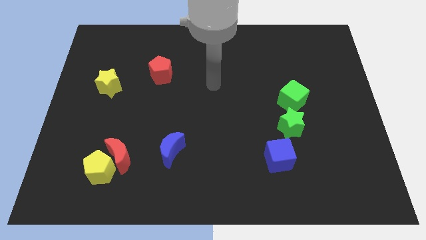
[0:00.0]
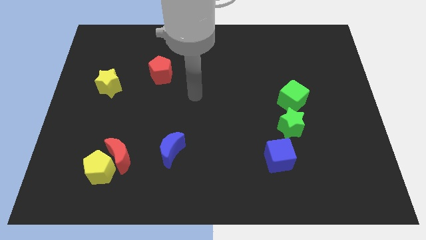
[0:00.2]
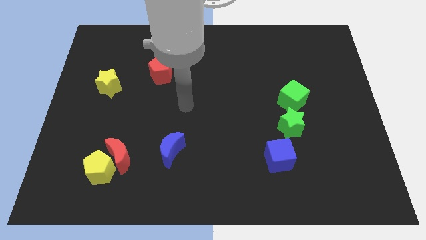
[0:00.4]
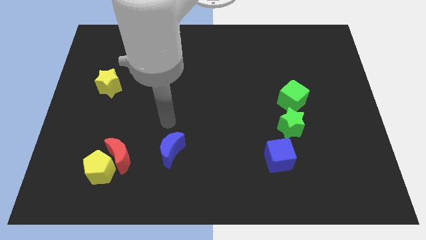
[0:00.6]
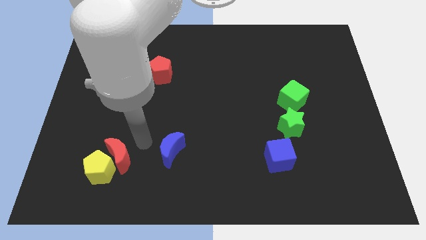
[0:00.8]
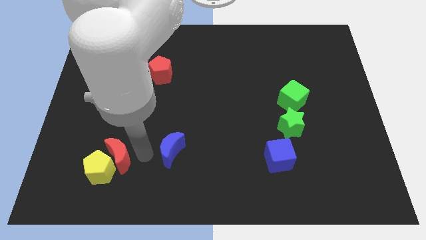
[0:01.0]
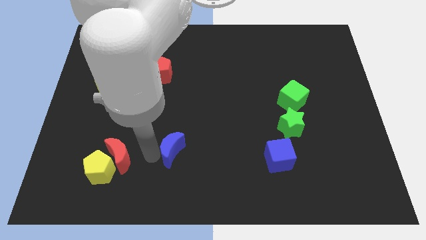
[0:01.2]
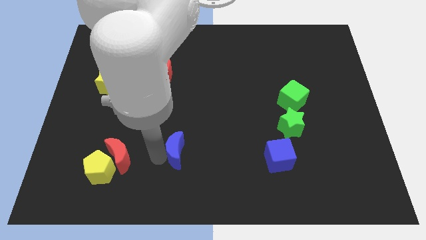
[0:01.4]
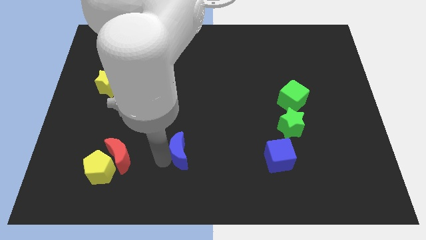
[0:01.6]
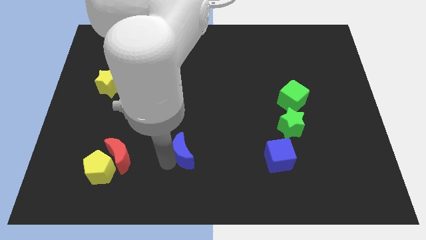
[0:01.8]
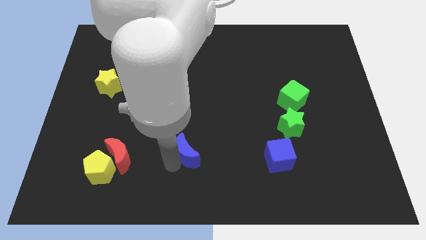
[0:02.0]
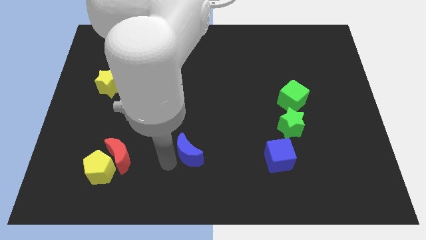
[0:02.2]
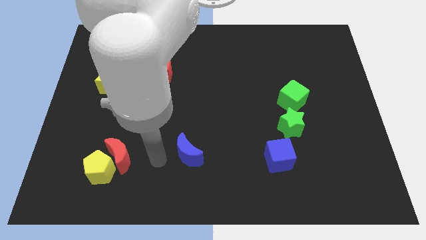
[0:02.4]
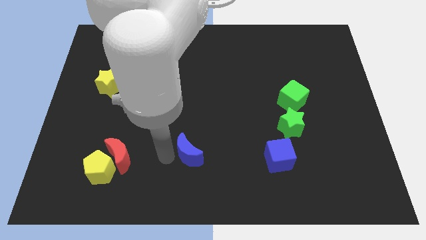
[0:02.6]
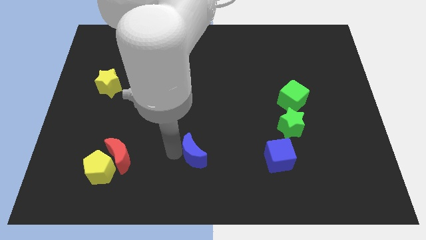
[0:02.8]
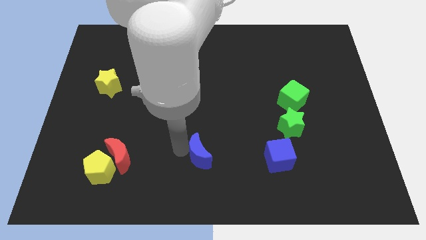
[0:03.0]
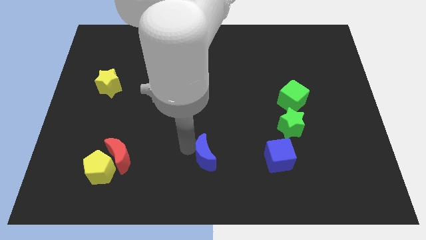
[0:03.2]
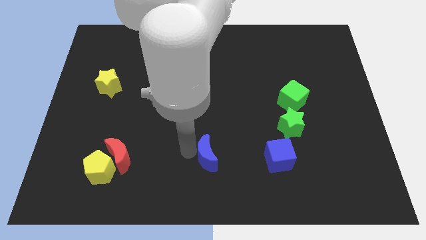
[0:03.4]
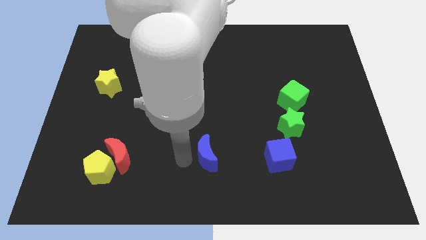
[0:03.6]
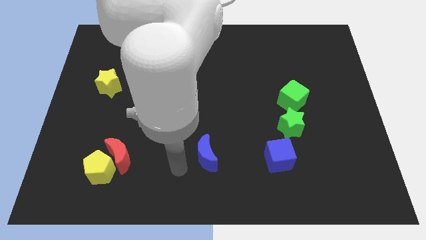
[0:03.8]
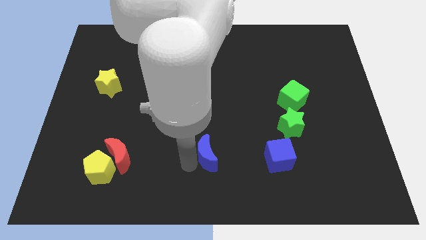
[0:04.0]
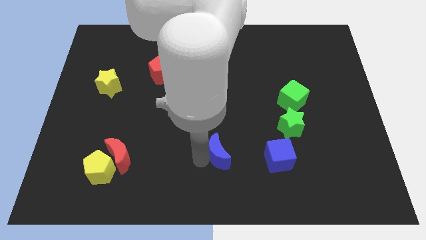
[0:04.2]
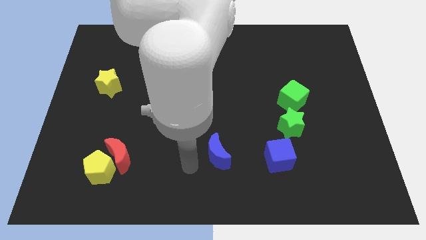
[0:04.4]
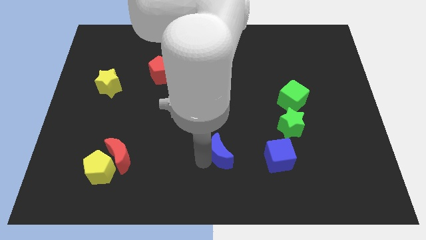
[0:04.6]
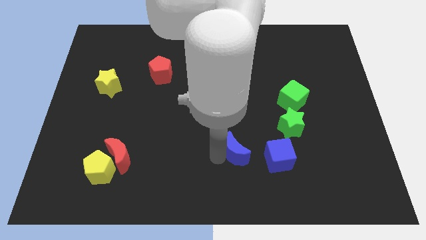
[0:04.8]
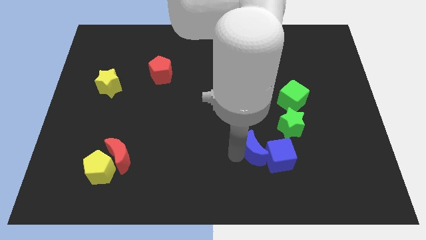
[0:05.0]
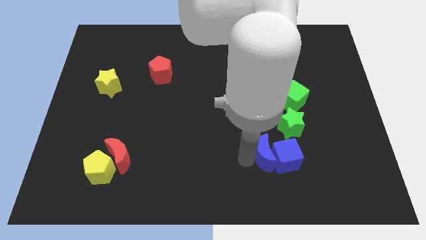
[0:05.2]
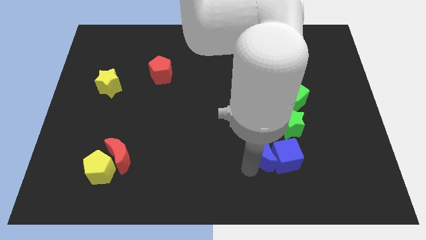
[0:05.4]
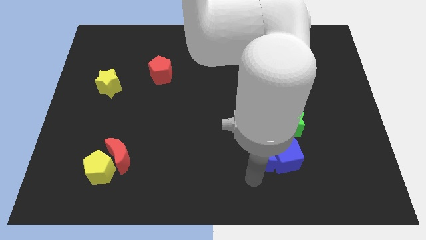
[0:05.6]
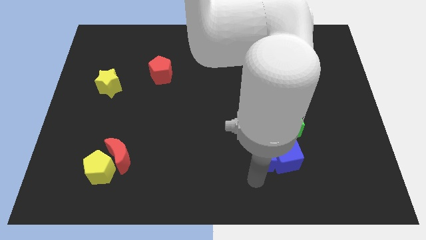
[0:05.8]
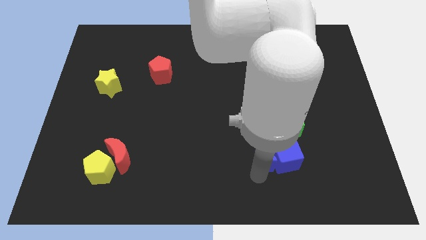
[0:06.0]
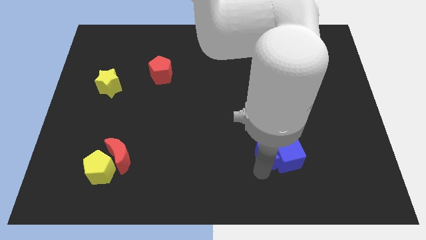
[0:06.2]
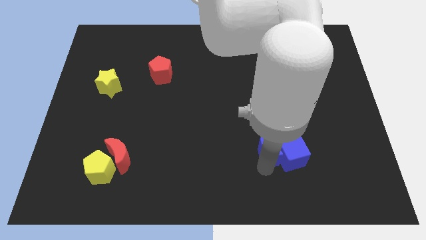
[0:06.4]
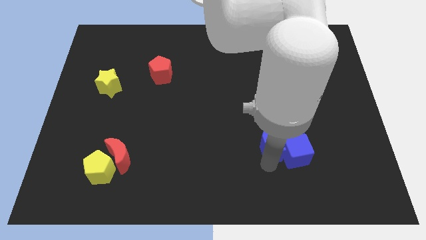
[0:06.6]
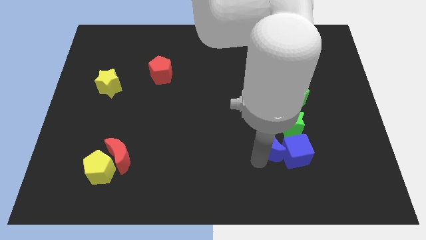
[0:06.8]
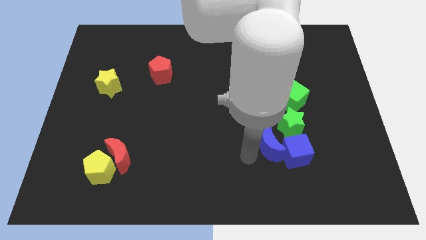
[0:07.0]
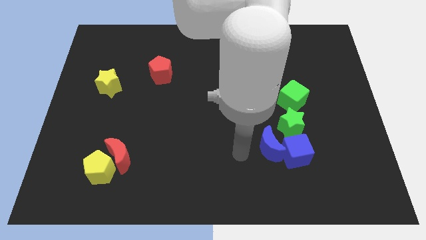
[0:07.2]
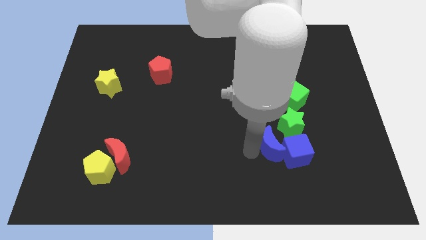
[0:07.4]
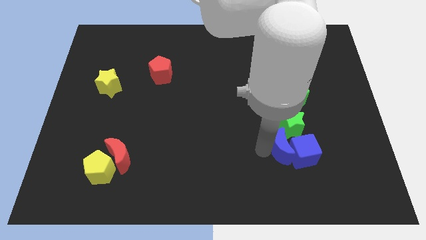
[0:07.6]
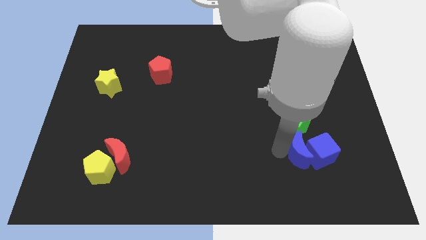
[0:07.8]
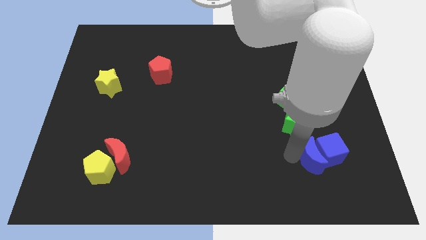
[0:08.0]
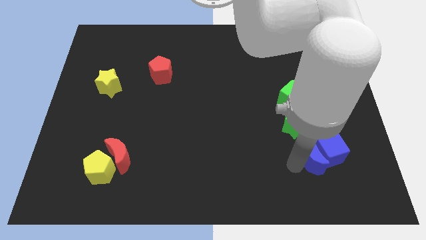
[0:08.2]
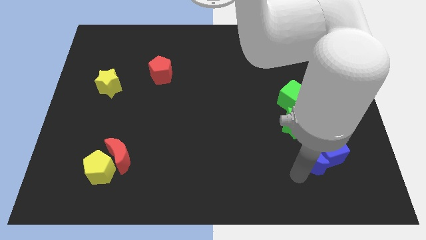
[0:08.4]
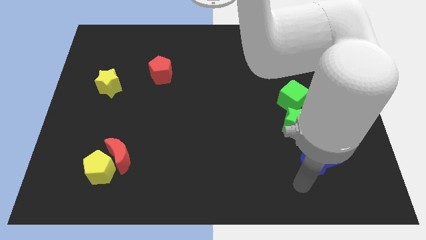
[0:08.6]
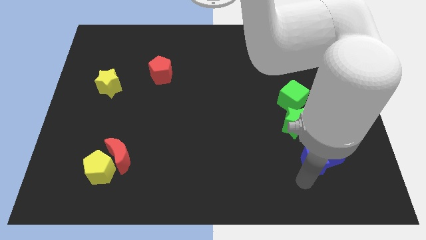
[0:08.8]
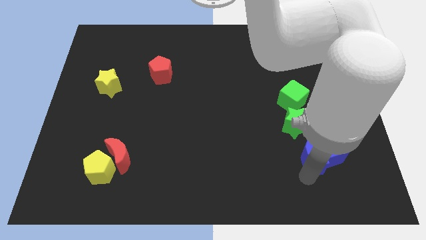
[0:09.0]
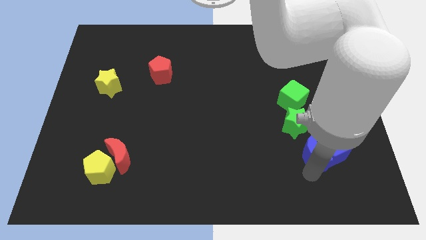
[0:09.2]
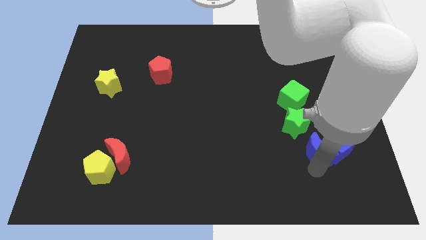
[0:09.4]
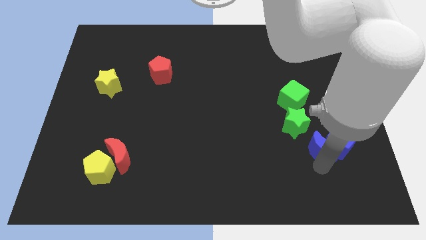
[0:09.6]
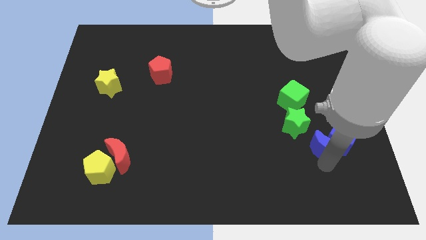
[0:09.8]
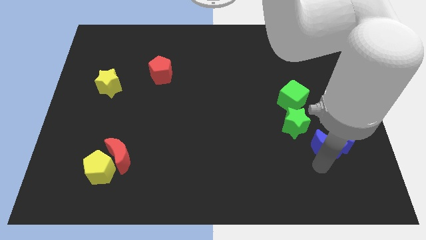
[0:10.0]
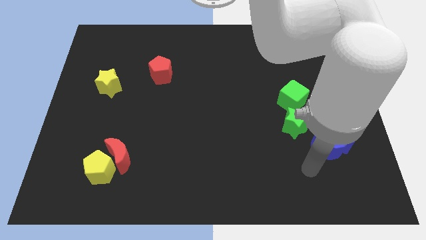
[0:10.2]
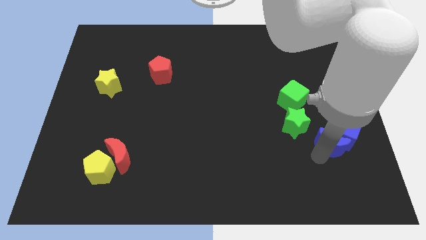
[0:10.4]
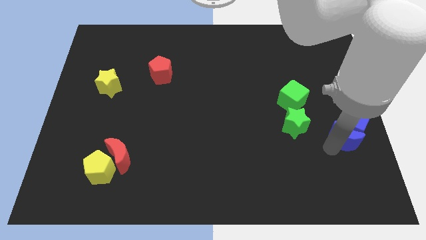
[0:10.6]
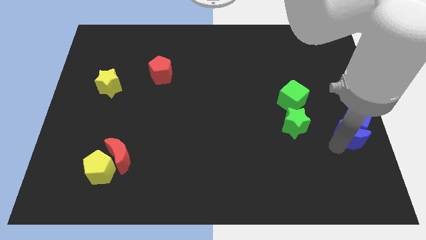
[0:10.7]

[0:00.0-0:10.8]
slide the blue moon to the center right
